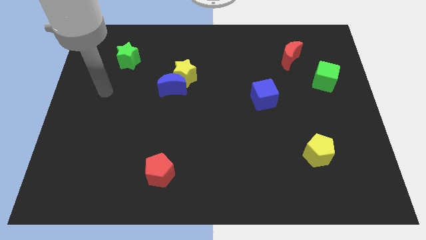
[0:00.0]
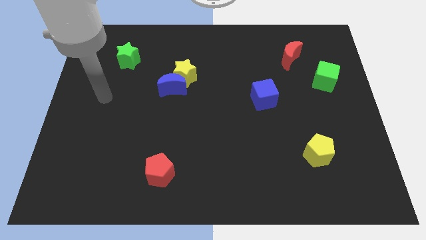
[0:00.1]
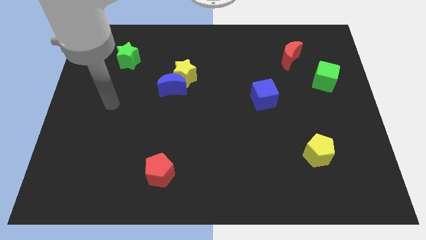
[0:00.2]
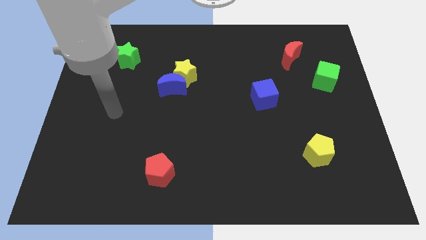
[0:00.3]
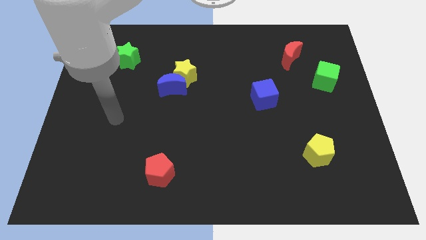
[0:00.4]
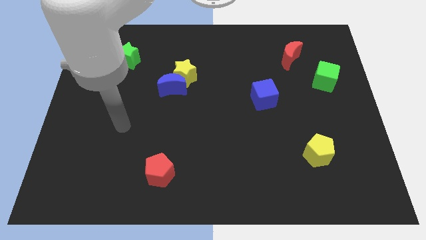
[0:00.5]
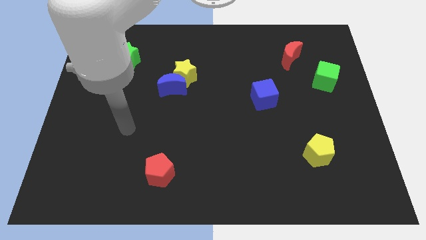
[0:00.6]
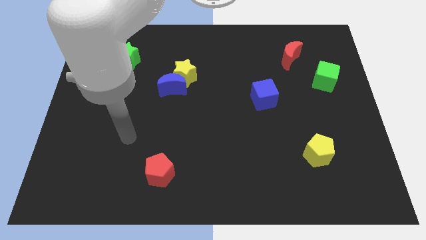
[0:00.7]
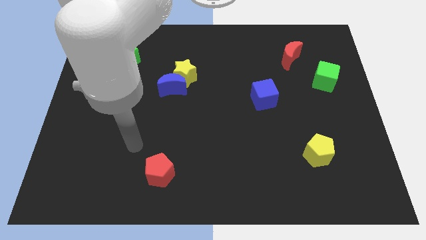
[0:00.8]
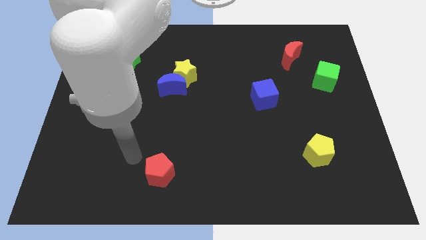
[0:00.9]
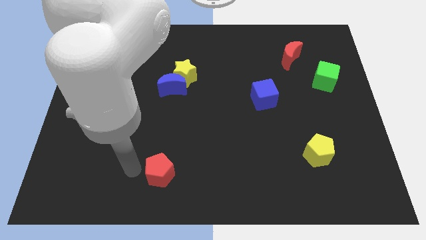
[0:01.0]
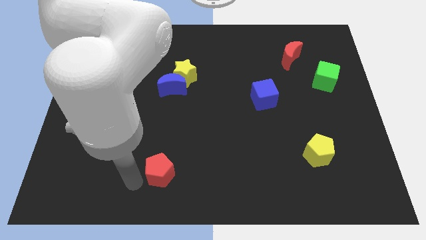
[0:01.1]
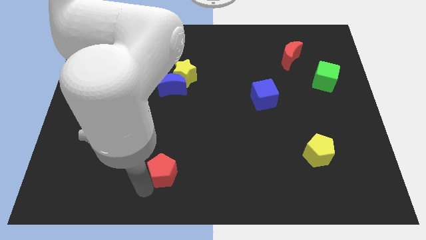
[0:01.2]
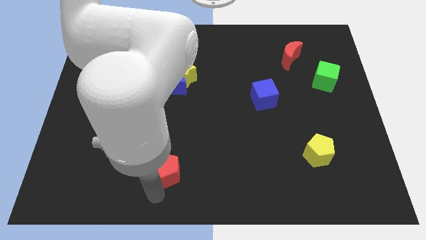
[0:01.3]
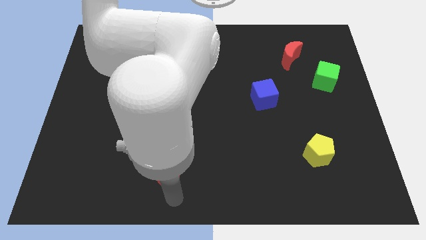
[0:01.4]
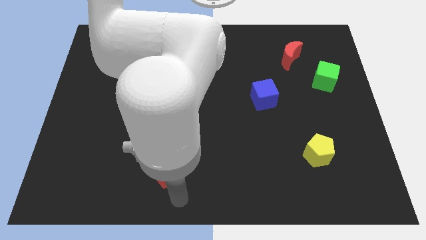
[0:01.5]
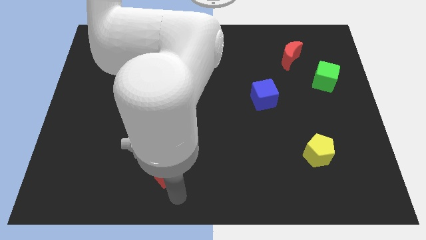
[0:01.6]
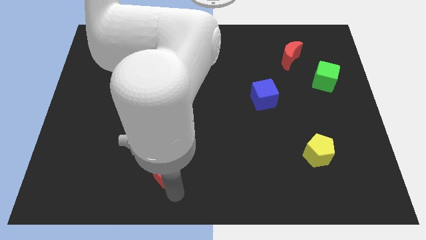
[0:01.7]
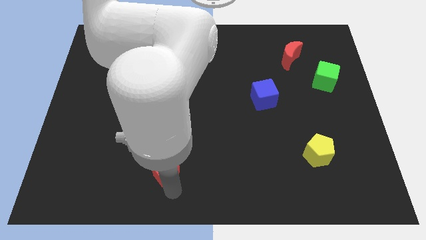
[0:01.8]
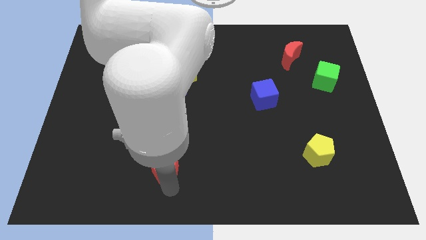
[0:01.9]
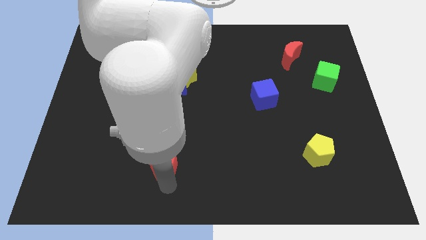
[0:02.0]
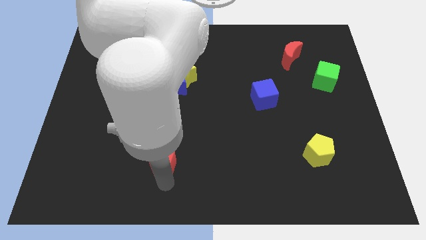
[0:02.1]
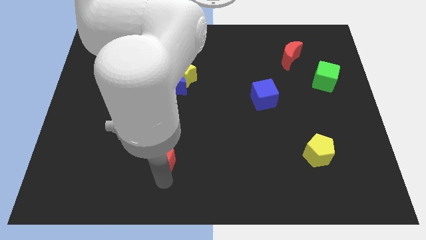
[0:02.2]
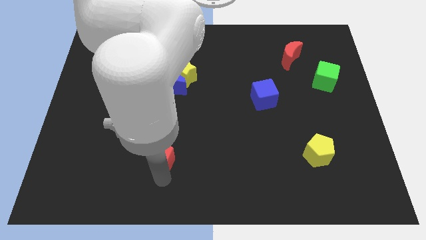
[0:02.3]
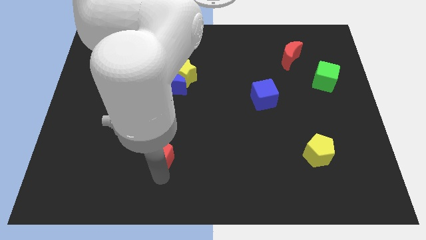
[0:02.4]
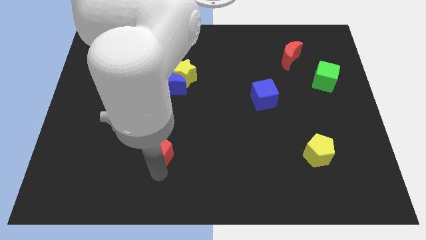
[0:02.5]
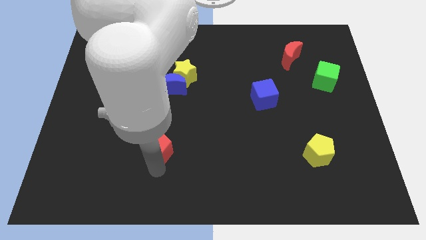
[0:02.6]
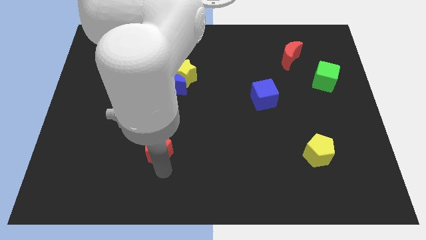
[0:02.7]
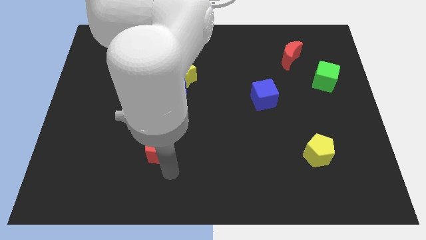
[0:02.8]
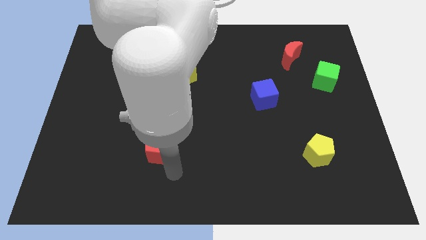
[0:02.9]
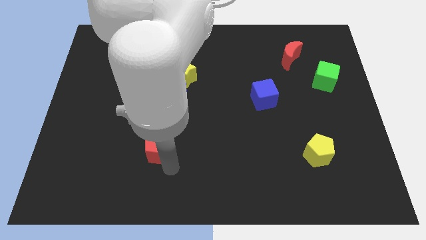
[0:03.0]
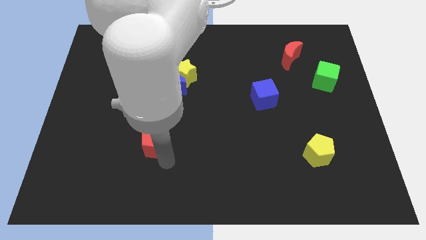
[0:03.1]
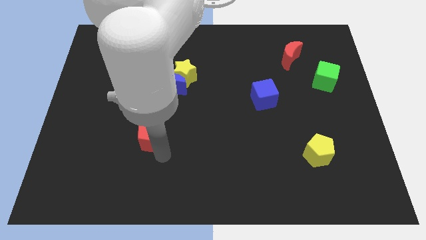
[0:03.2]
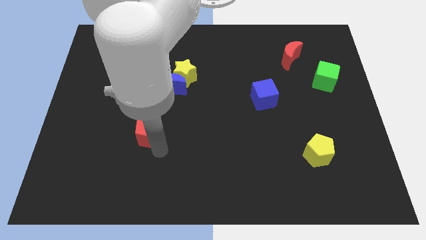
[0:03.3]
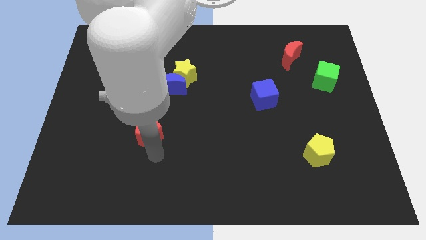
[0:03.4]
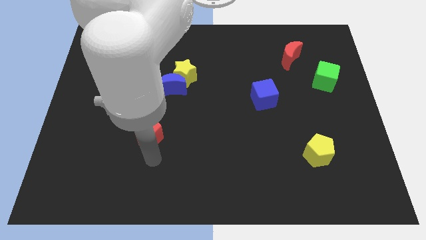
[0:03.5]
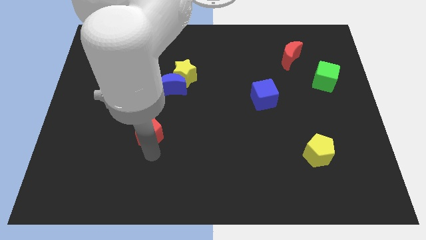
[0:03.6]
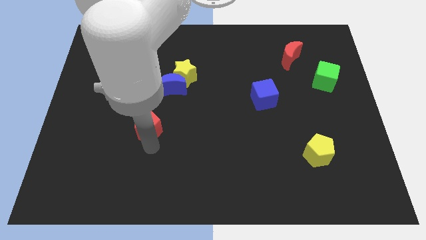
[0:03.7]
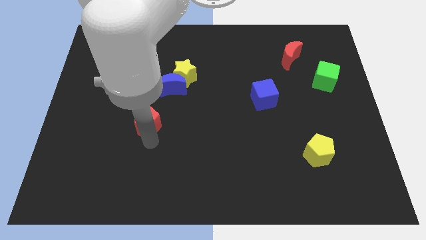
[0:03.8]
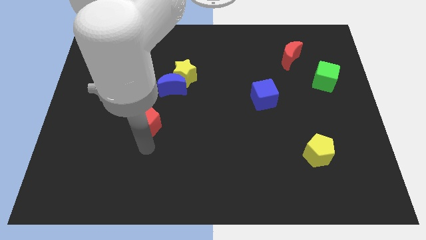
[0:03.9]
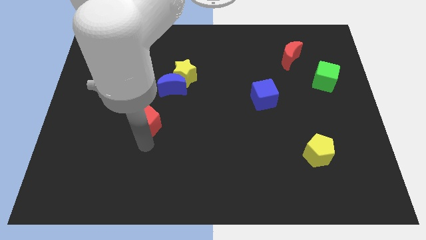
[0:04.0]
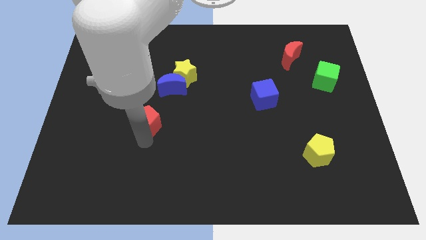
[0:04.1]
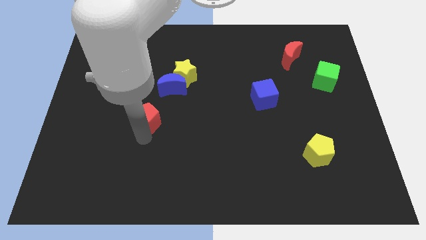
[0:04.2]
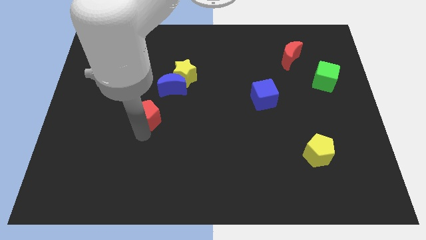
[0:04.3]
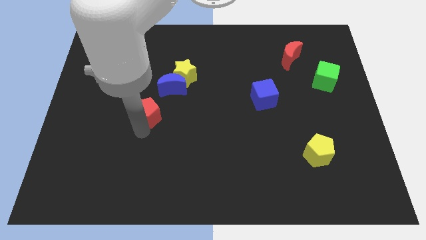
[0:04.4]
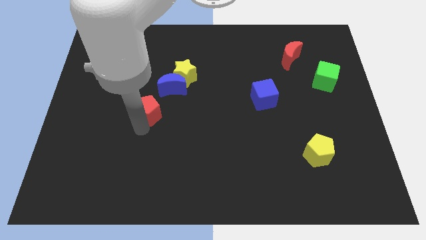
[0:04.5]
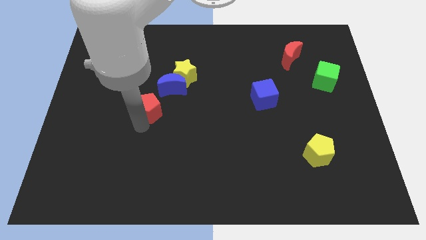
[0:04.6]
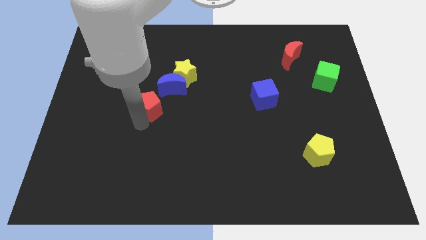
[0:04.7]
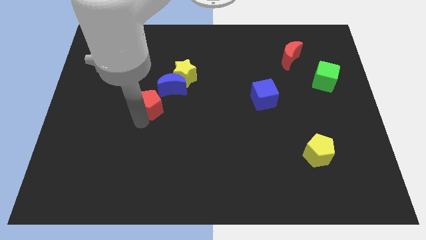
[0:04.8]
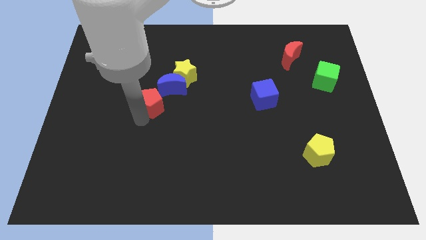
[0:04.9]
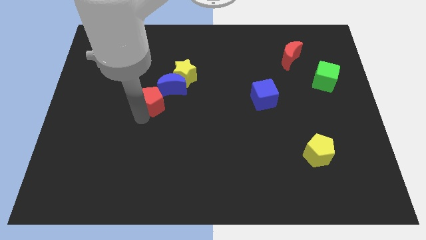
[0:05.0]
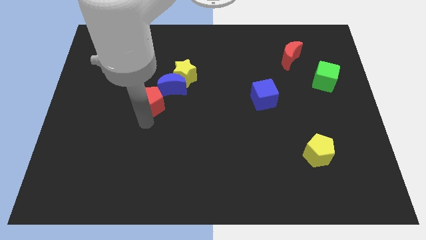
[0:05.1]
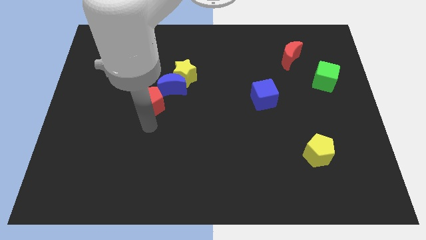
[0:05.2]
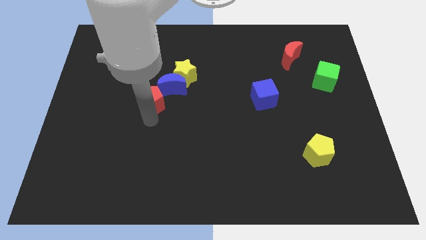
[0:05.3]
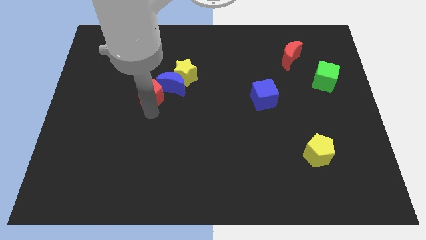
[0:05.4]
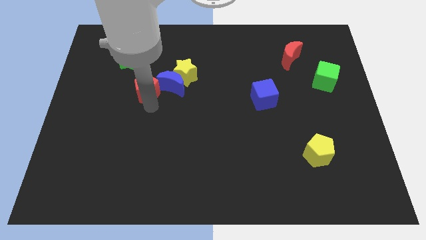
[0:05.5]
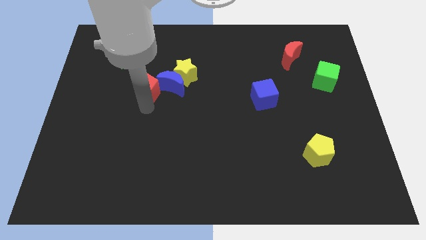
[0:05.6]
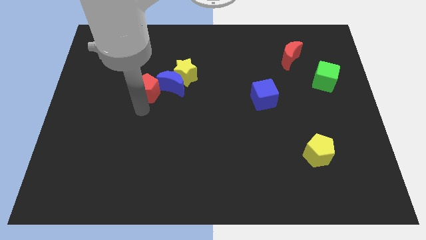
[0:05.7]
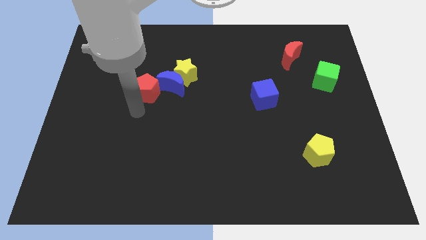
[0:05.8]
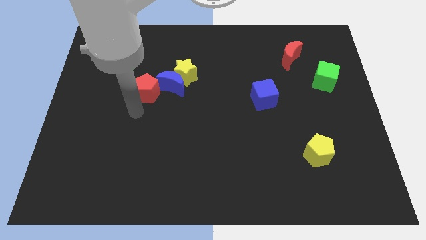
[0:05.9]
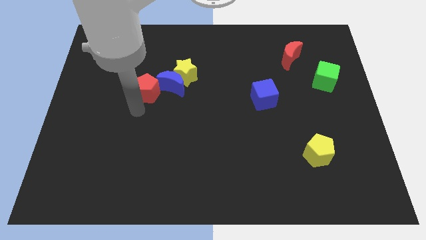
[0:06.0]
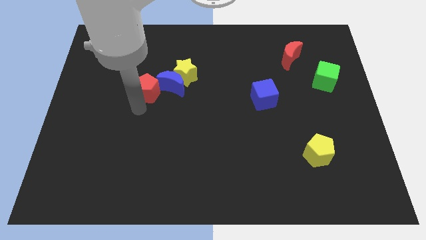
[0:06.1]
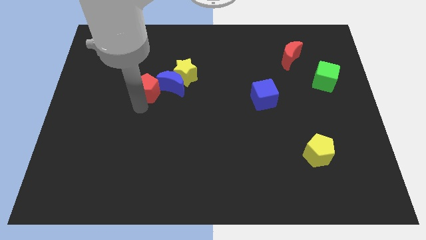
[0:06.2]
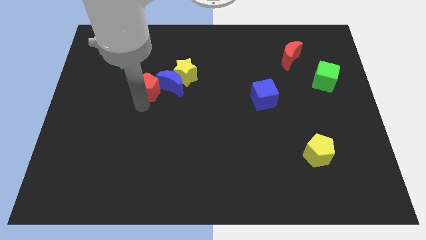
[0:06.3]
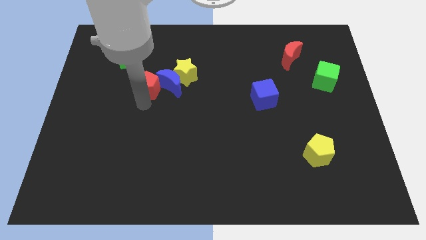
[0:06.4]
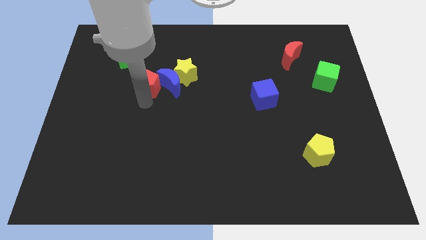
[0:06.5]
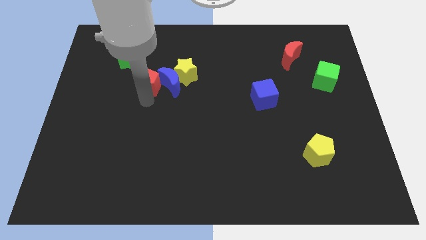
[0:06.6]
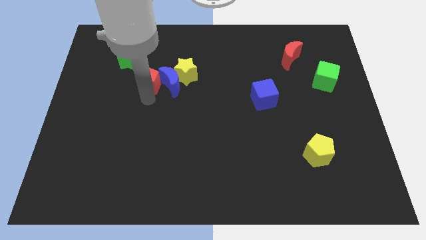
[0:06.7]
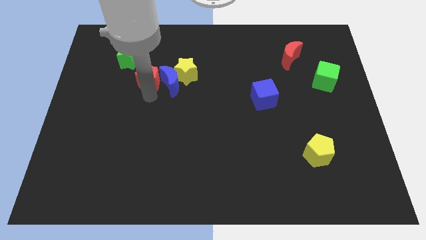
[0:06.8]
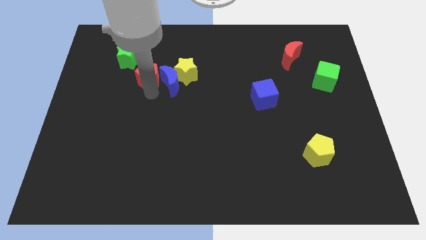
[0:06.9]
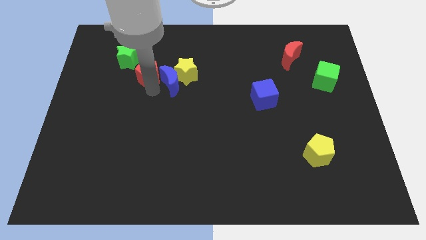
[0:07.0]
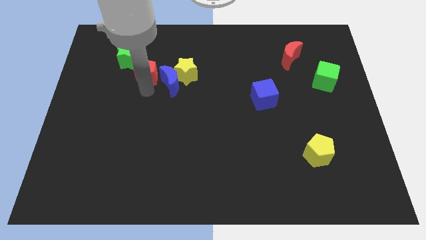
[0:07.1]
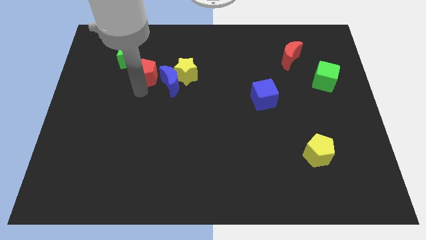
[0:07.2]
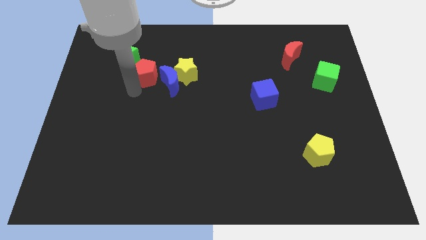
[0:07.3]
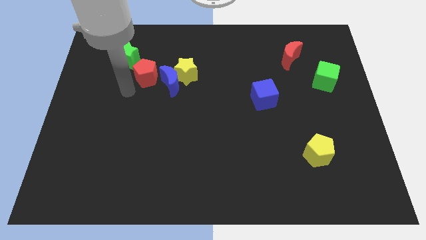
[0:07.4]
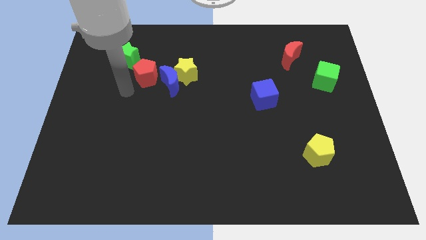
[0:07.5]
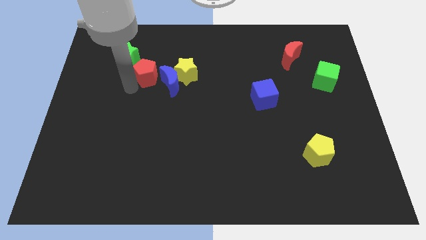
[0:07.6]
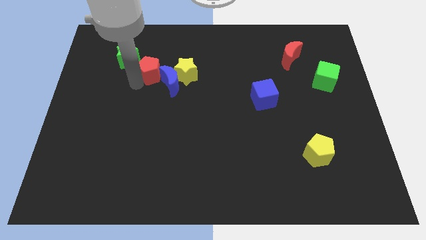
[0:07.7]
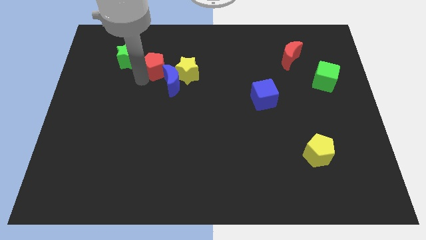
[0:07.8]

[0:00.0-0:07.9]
push the red pentagon diagonally up and to the left of the yellow star
